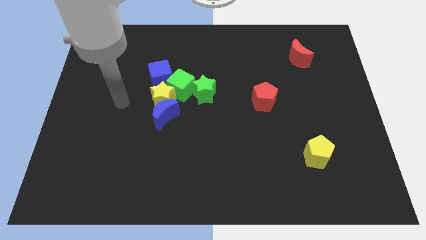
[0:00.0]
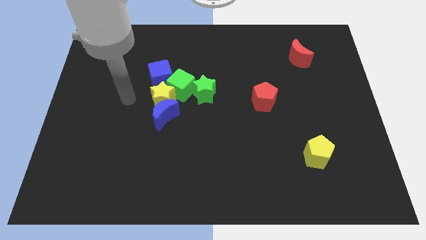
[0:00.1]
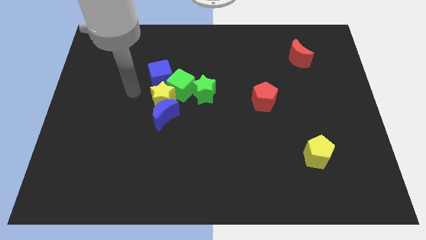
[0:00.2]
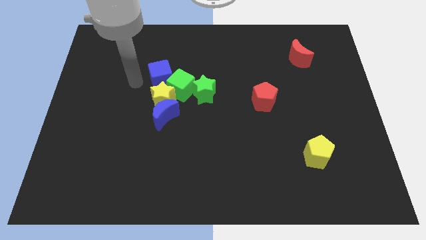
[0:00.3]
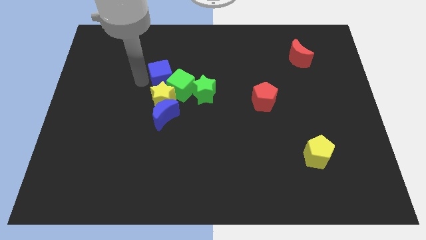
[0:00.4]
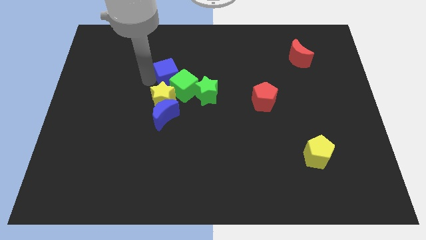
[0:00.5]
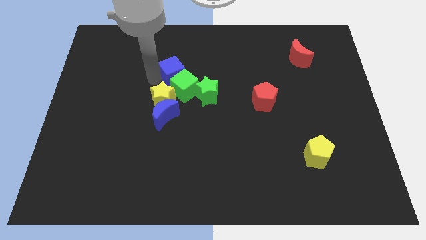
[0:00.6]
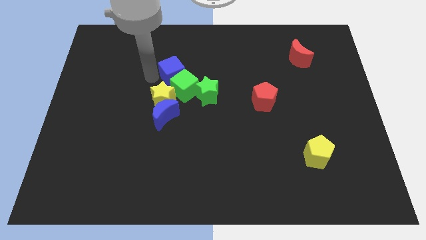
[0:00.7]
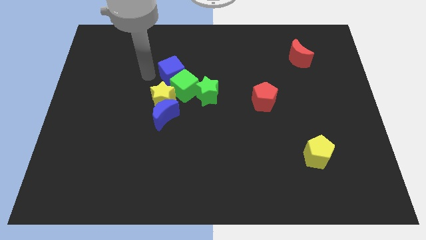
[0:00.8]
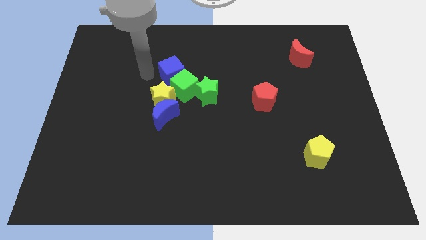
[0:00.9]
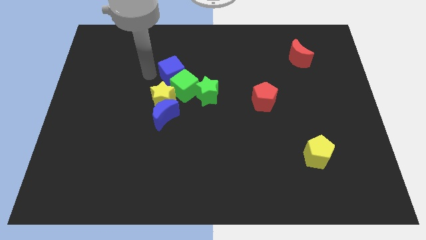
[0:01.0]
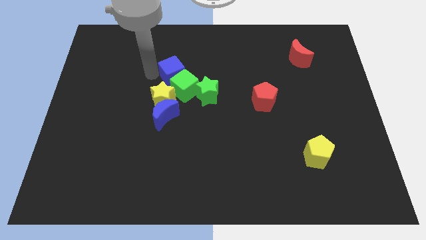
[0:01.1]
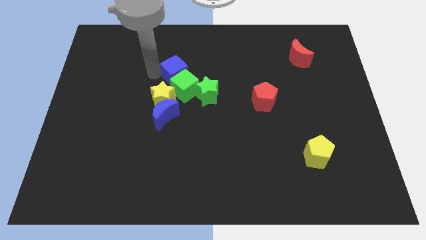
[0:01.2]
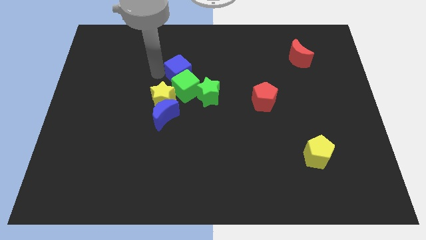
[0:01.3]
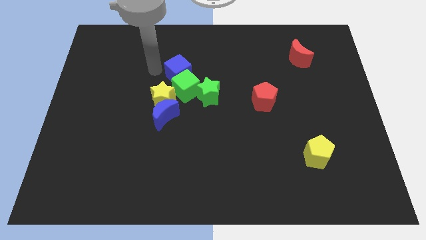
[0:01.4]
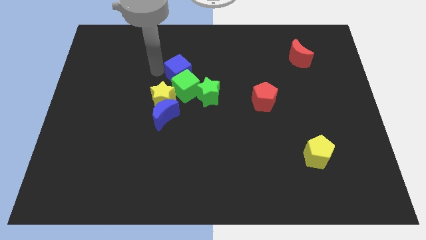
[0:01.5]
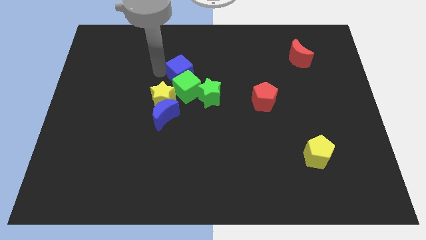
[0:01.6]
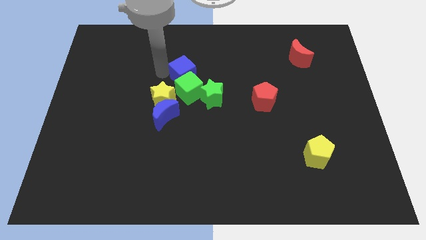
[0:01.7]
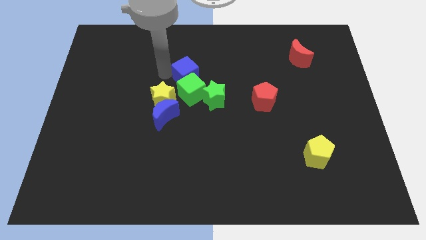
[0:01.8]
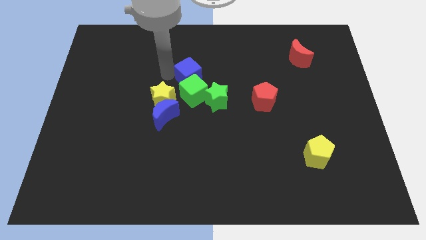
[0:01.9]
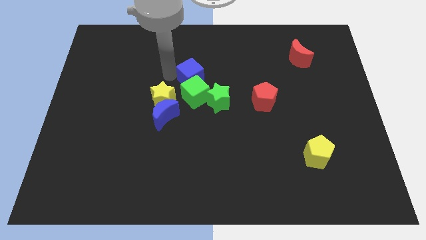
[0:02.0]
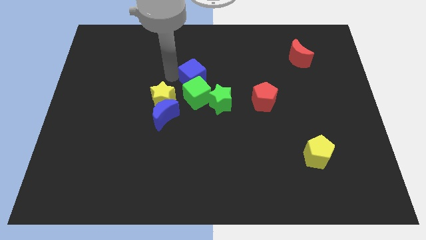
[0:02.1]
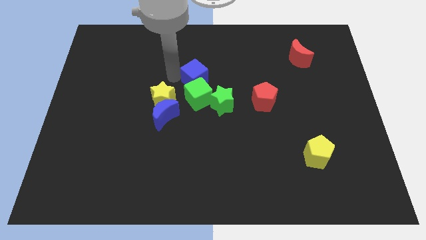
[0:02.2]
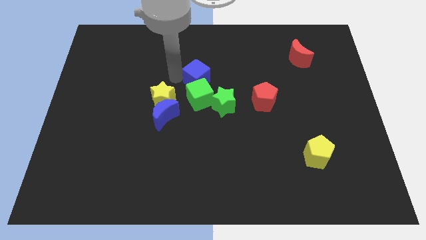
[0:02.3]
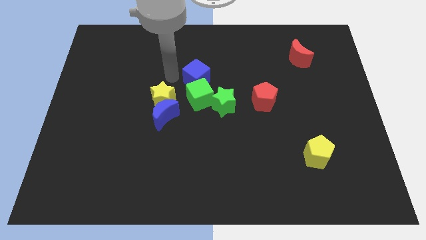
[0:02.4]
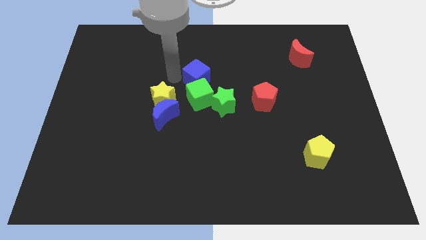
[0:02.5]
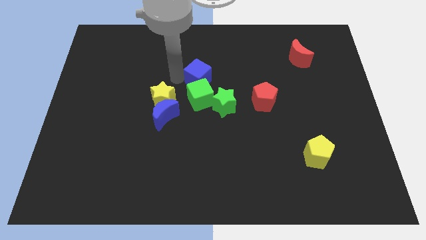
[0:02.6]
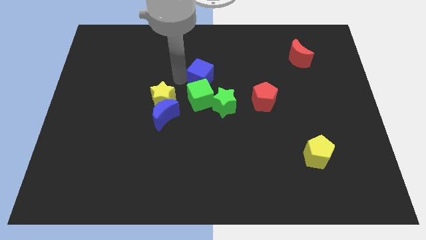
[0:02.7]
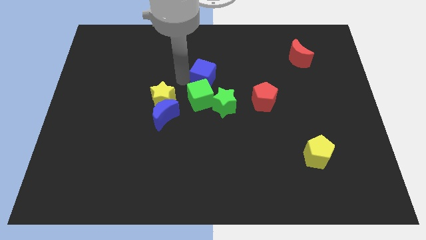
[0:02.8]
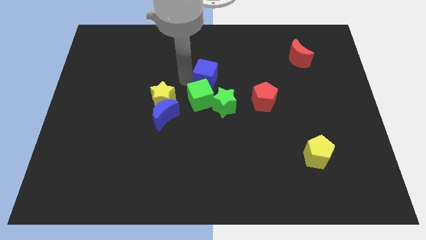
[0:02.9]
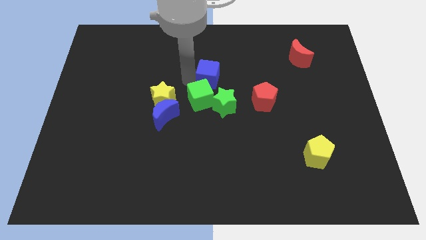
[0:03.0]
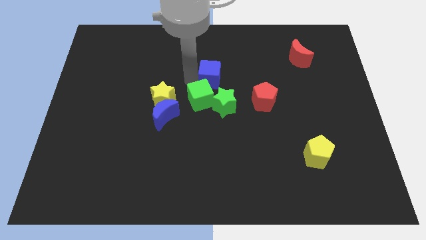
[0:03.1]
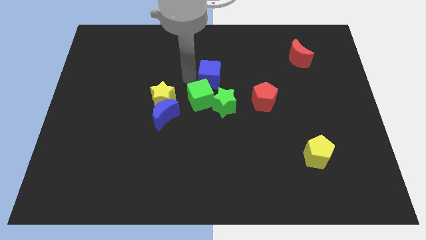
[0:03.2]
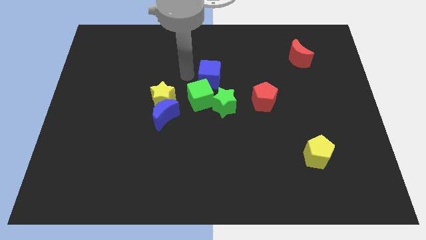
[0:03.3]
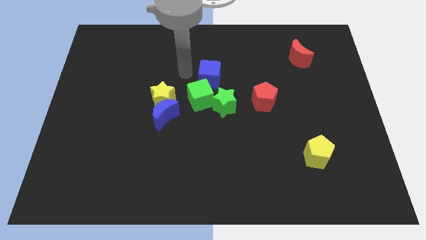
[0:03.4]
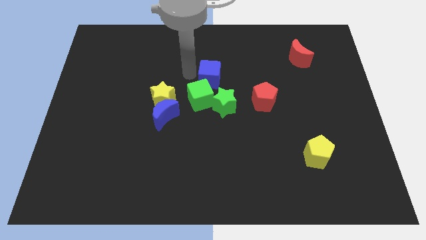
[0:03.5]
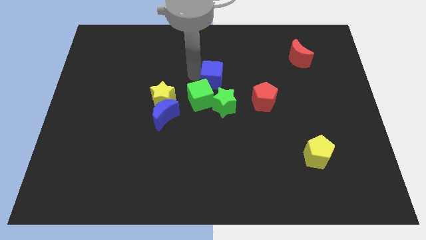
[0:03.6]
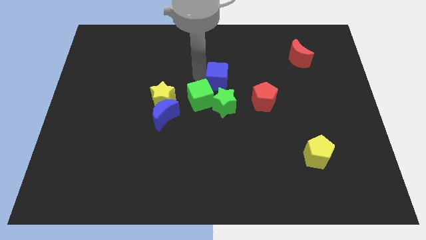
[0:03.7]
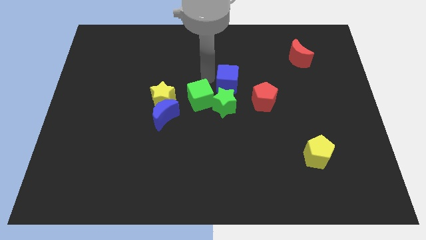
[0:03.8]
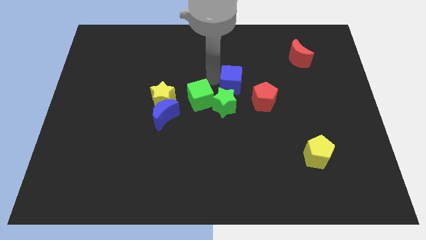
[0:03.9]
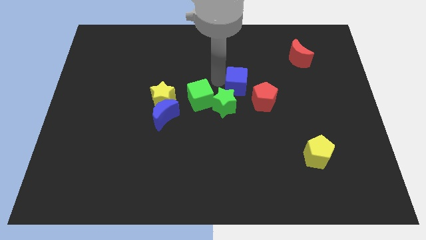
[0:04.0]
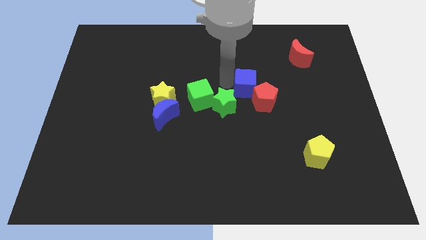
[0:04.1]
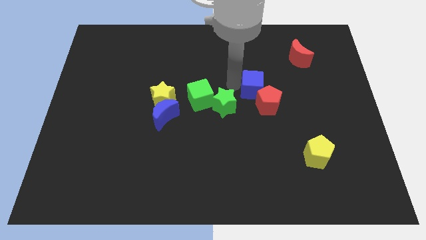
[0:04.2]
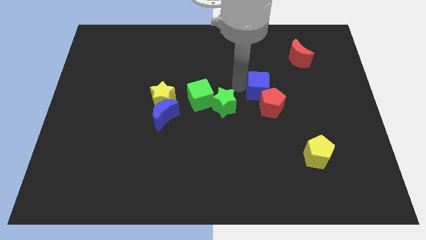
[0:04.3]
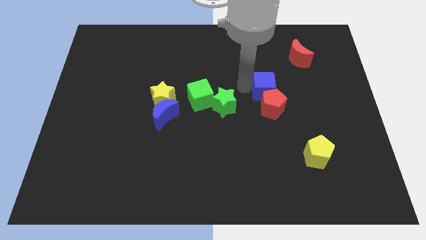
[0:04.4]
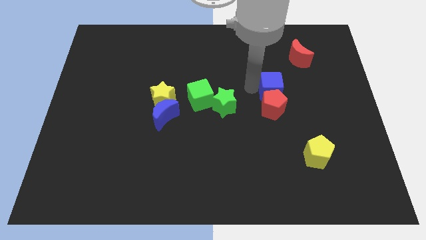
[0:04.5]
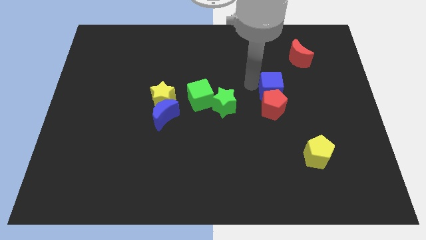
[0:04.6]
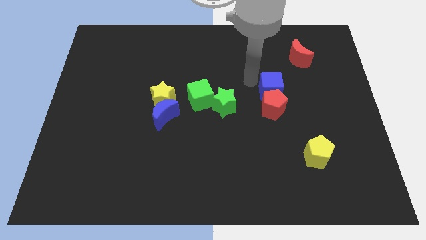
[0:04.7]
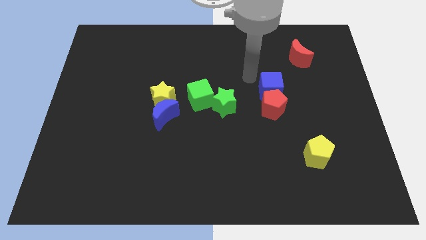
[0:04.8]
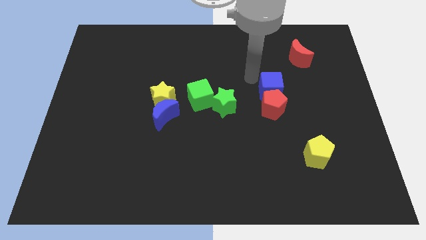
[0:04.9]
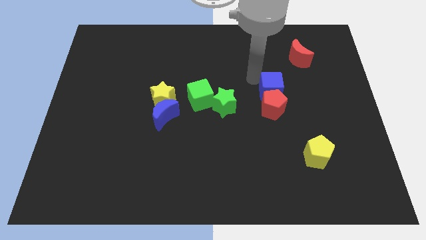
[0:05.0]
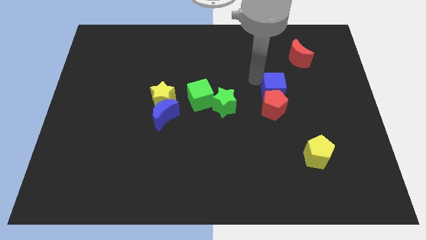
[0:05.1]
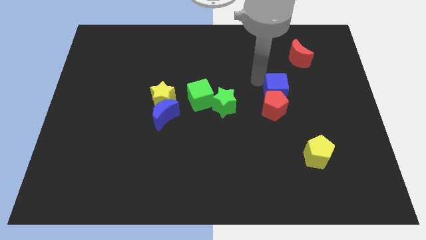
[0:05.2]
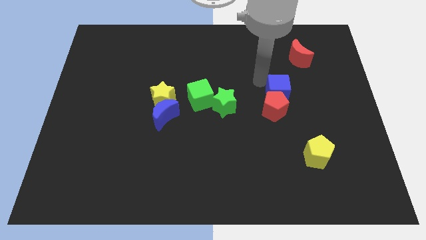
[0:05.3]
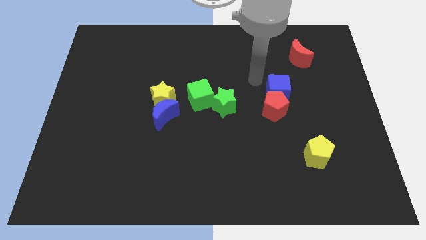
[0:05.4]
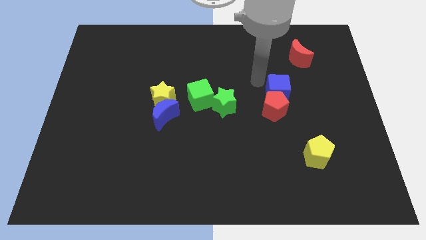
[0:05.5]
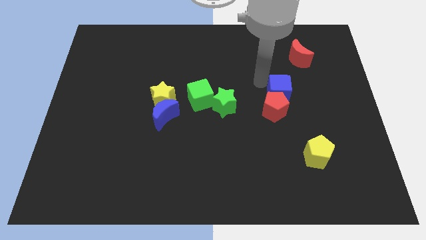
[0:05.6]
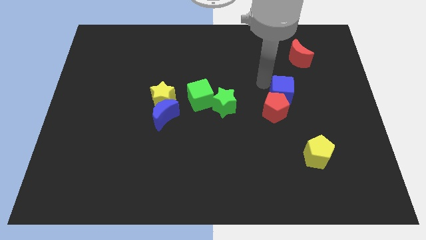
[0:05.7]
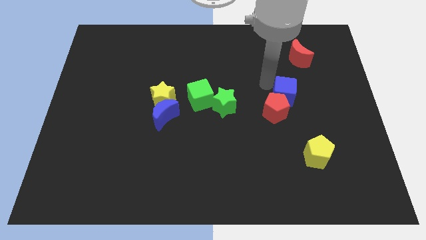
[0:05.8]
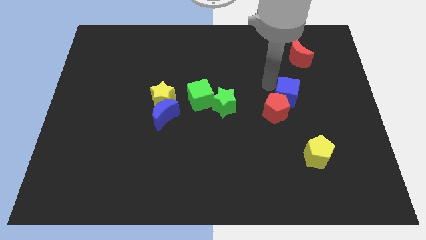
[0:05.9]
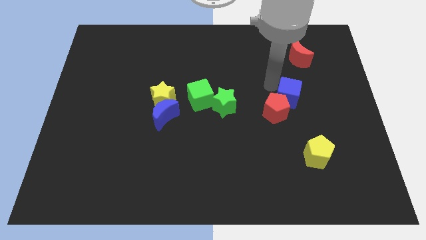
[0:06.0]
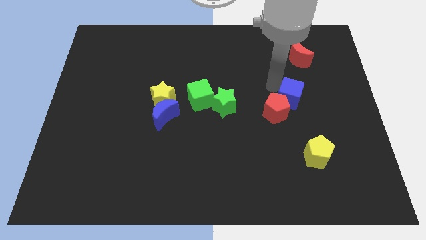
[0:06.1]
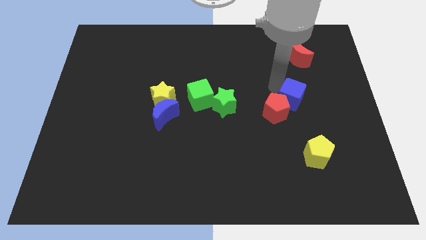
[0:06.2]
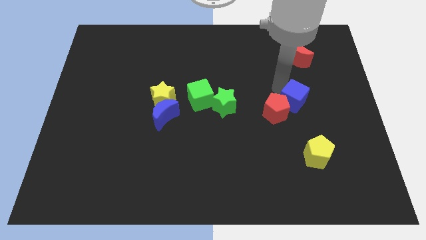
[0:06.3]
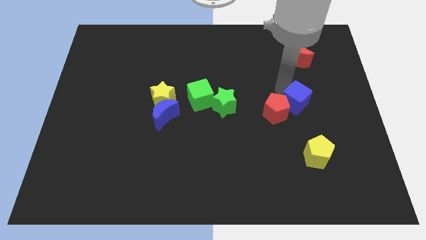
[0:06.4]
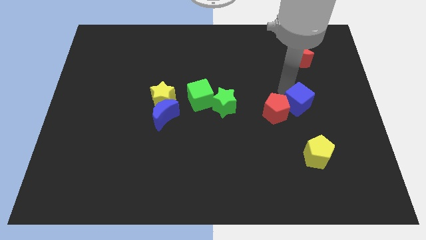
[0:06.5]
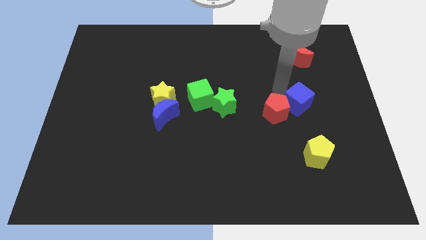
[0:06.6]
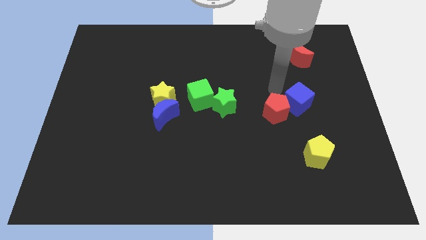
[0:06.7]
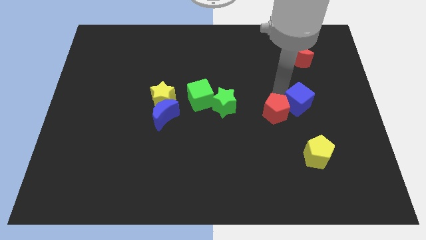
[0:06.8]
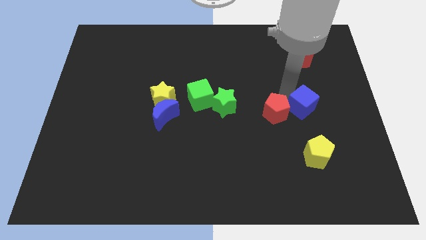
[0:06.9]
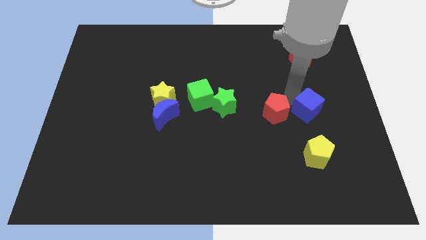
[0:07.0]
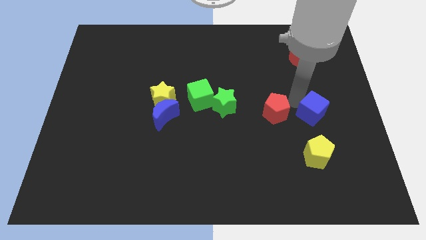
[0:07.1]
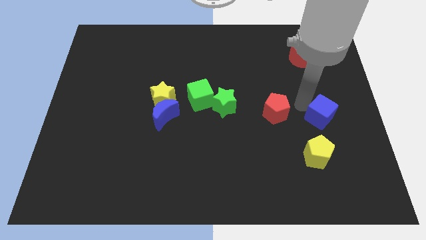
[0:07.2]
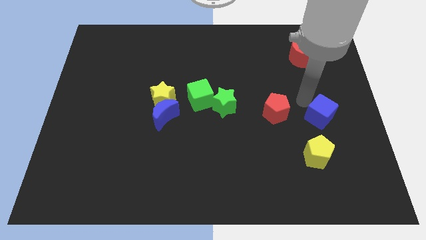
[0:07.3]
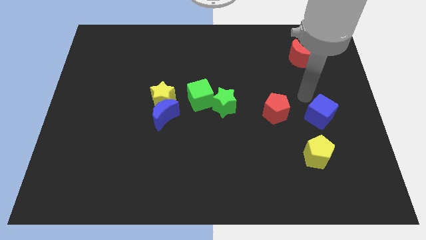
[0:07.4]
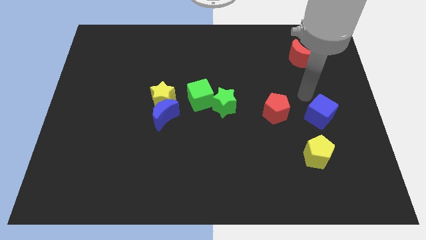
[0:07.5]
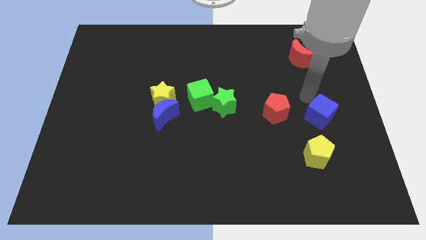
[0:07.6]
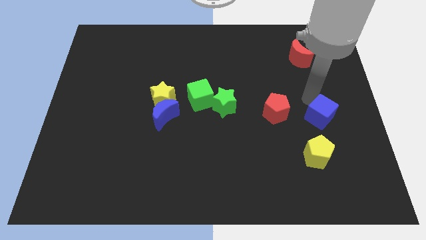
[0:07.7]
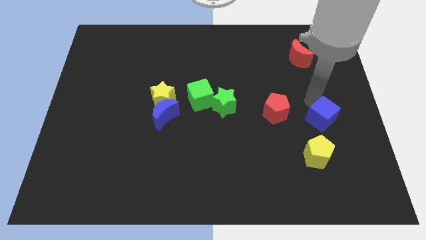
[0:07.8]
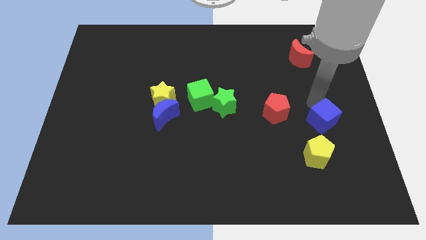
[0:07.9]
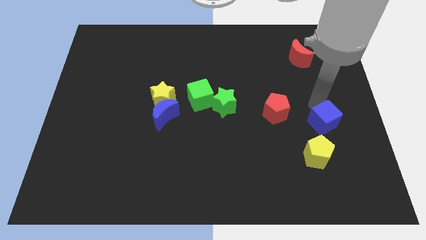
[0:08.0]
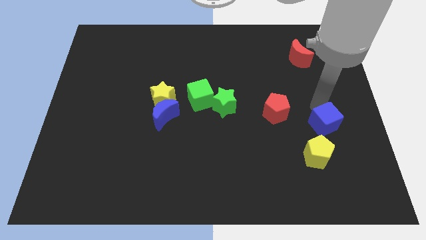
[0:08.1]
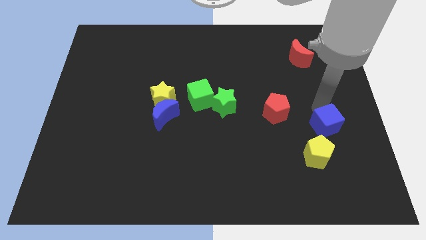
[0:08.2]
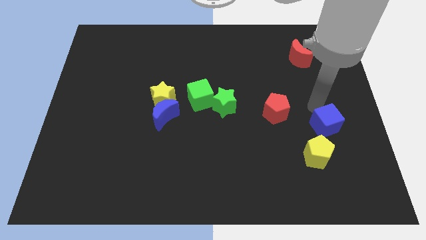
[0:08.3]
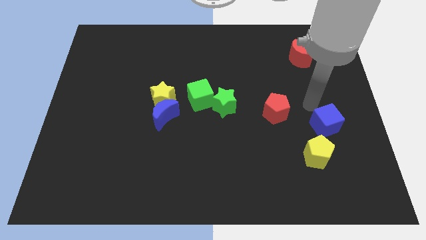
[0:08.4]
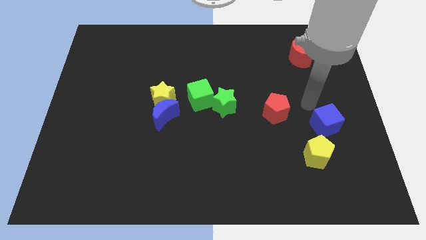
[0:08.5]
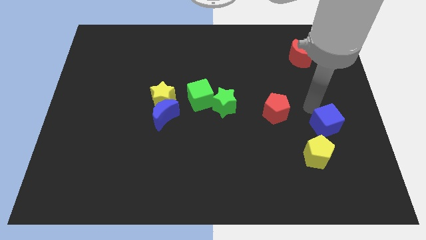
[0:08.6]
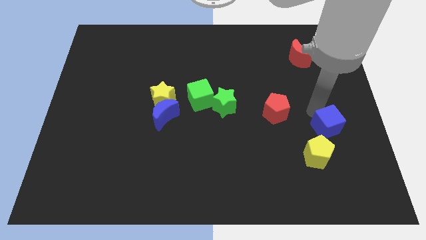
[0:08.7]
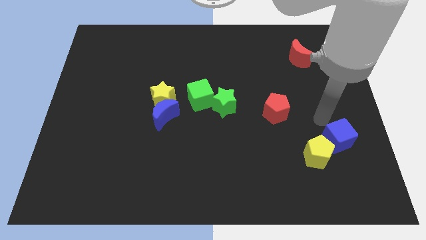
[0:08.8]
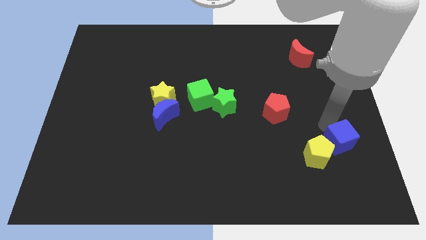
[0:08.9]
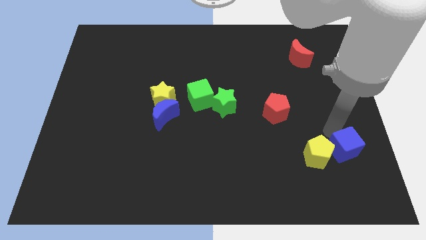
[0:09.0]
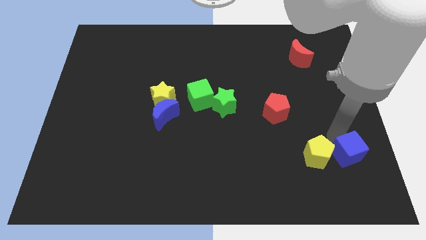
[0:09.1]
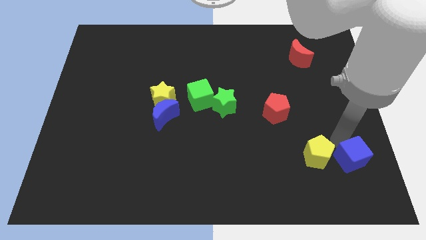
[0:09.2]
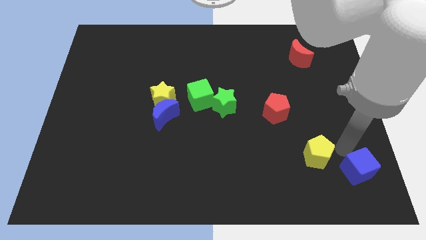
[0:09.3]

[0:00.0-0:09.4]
put the blue cube to the bottom right of the board
